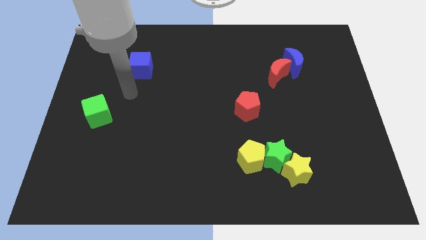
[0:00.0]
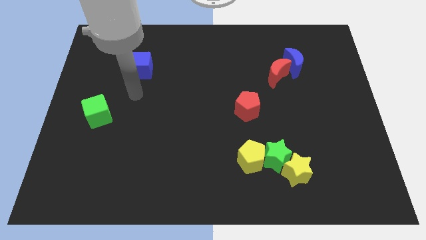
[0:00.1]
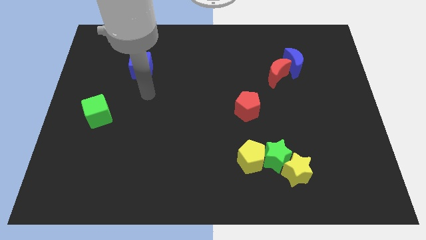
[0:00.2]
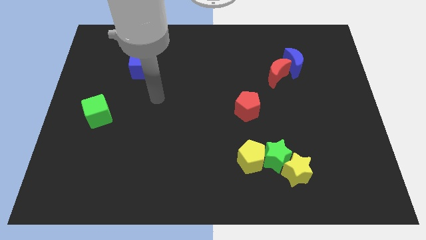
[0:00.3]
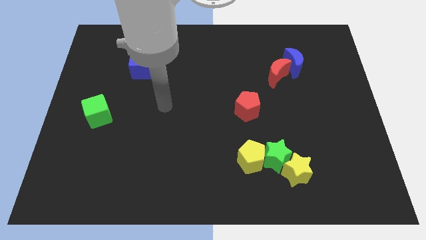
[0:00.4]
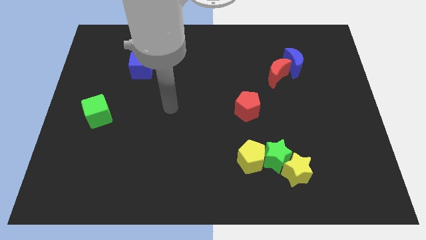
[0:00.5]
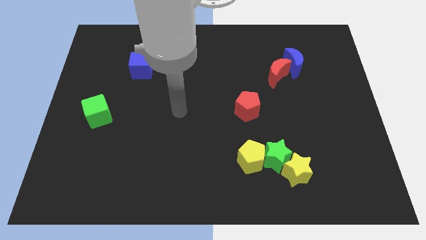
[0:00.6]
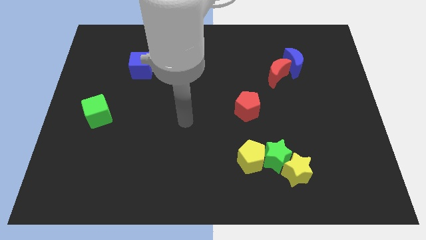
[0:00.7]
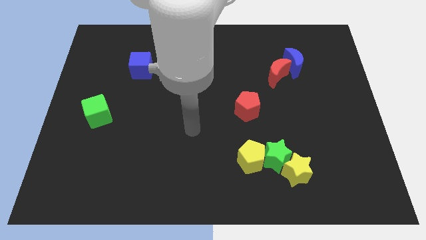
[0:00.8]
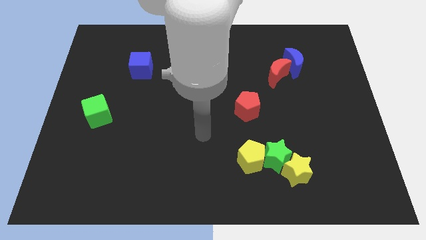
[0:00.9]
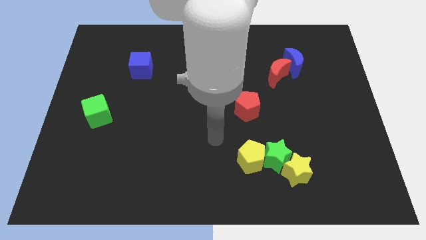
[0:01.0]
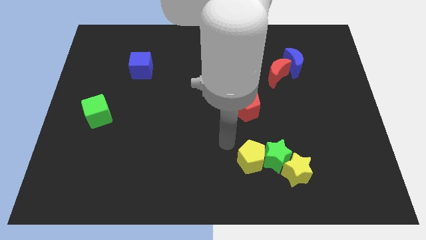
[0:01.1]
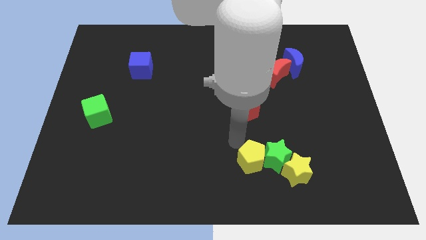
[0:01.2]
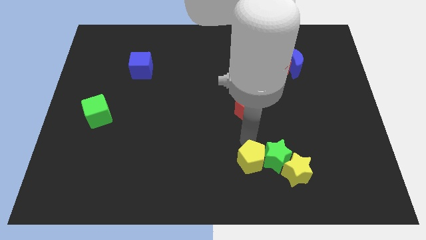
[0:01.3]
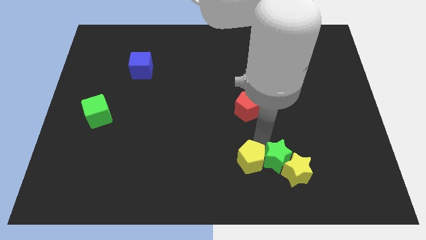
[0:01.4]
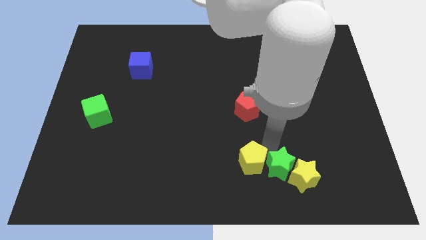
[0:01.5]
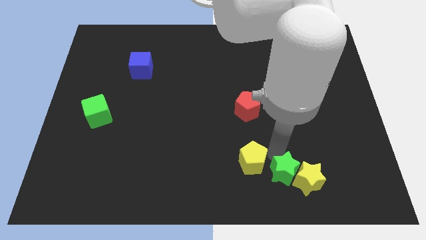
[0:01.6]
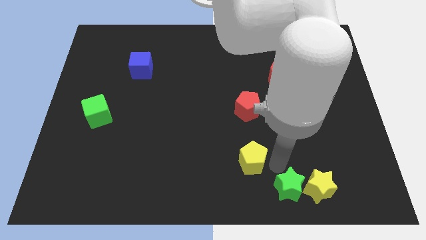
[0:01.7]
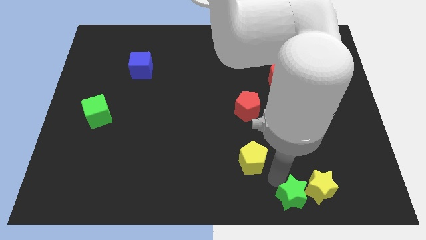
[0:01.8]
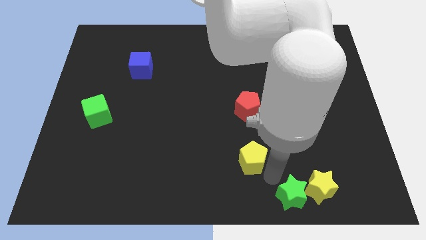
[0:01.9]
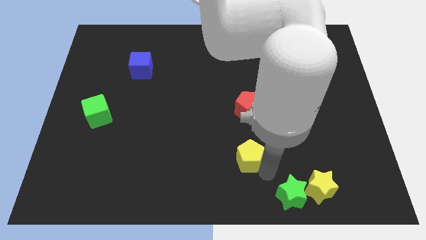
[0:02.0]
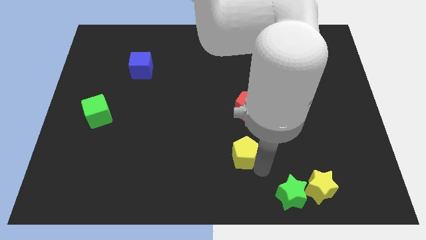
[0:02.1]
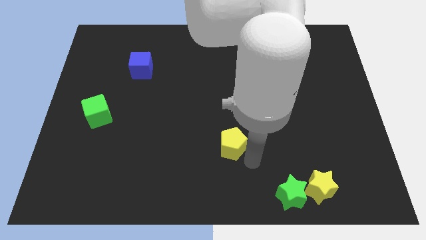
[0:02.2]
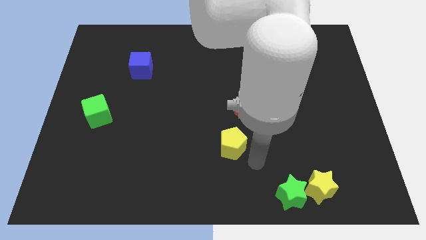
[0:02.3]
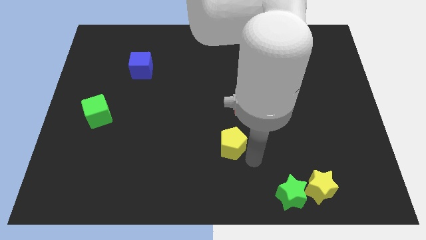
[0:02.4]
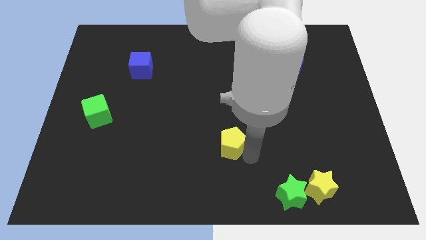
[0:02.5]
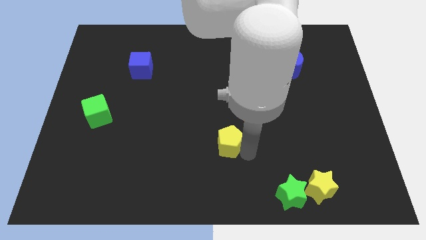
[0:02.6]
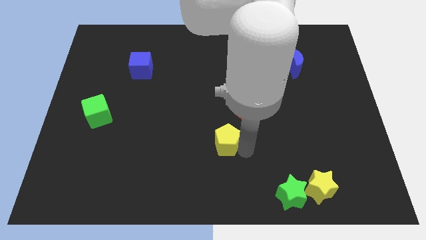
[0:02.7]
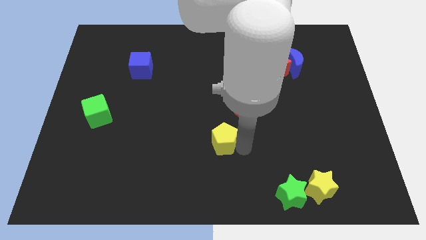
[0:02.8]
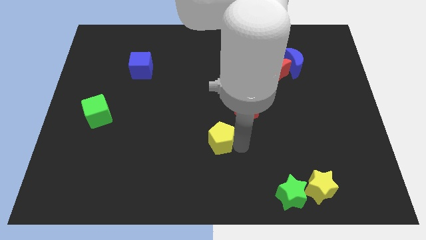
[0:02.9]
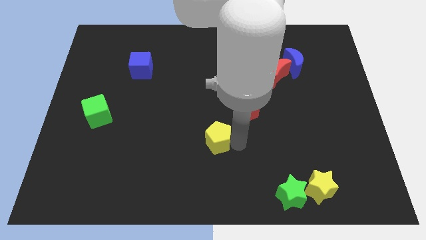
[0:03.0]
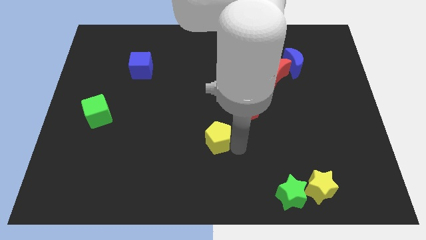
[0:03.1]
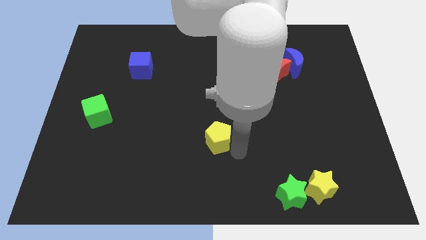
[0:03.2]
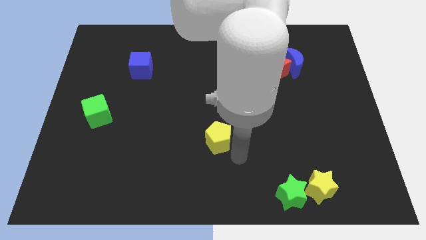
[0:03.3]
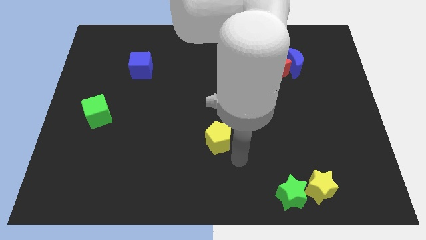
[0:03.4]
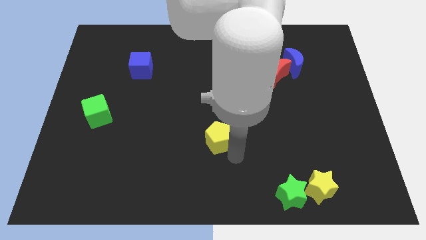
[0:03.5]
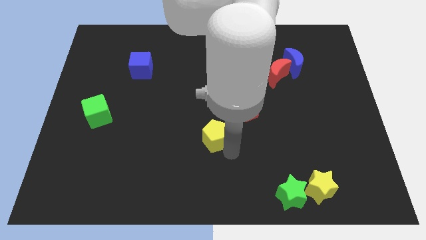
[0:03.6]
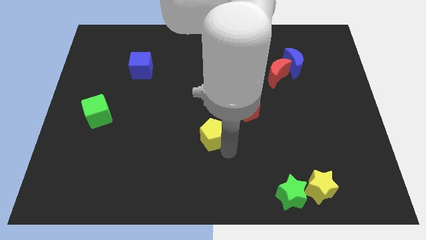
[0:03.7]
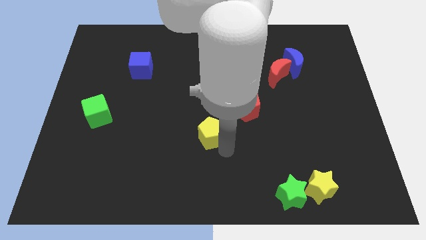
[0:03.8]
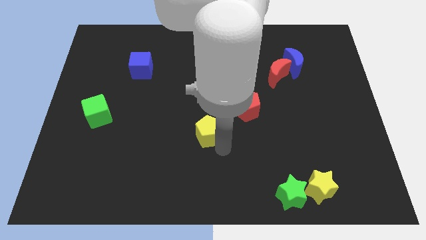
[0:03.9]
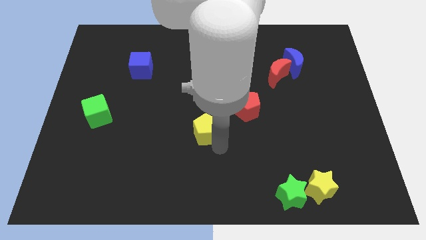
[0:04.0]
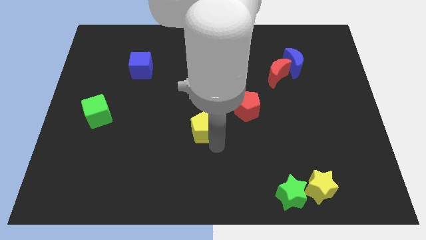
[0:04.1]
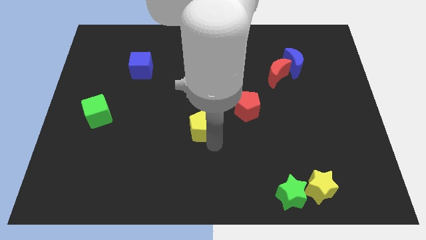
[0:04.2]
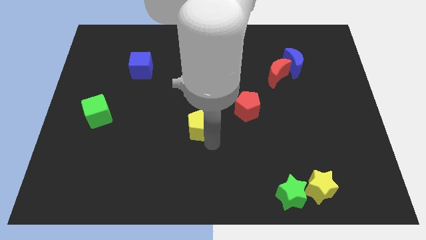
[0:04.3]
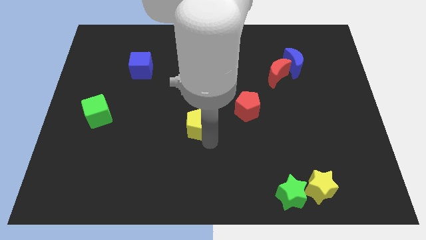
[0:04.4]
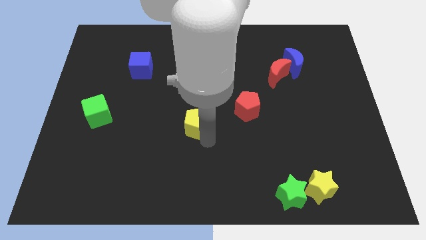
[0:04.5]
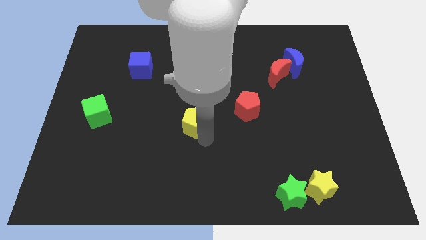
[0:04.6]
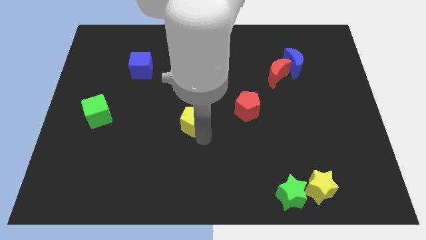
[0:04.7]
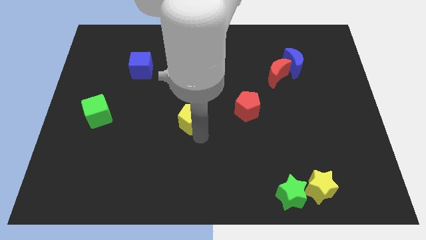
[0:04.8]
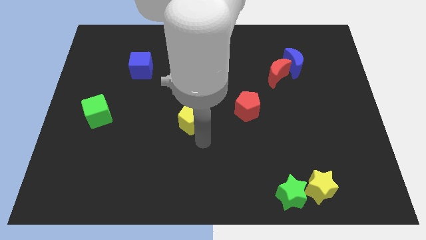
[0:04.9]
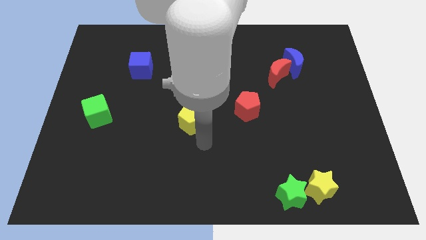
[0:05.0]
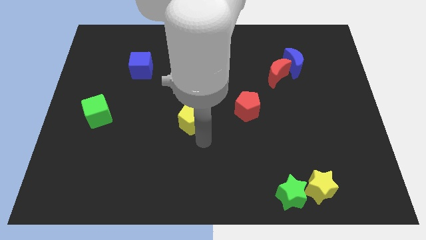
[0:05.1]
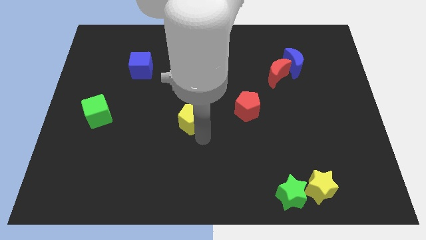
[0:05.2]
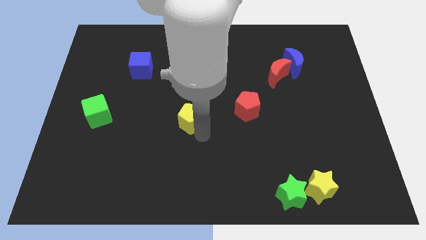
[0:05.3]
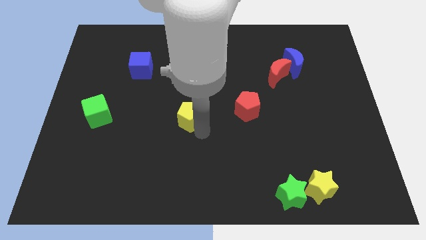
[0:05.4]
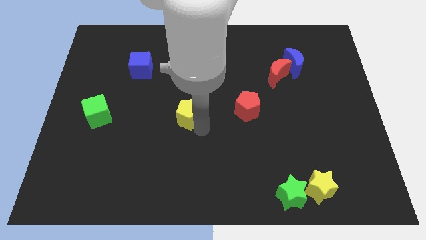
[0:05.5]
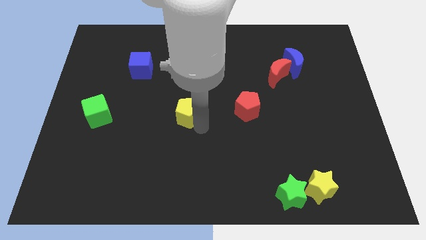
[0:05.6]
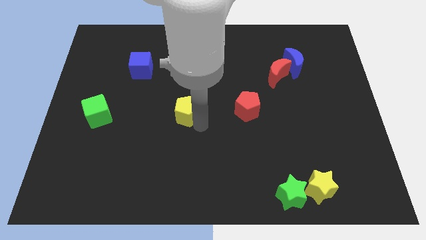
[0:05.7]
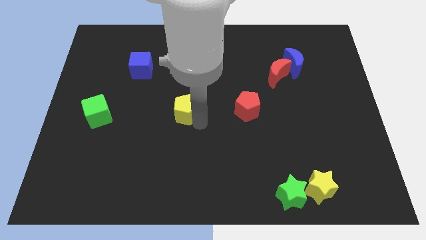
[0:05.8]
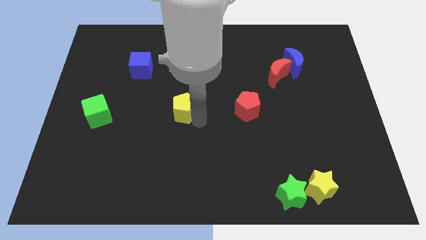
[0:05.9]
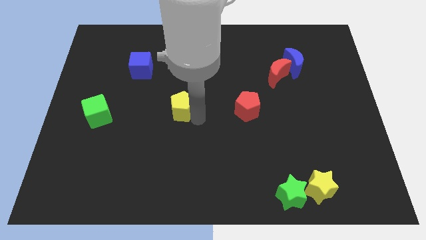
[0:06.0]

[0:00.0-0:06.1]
slide the yellow pentagon upwards and to the left diagonally

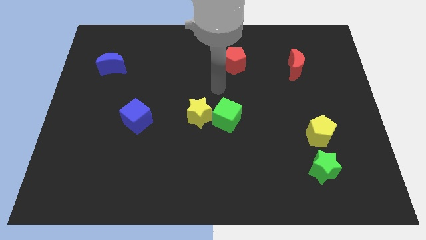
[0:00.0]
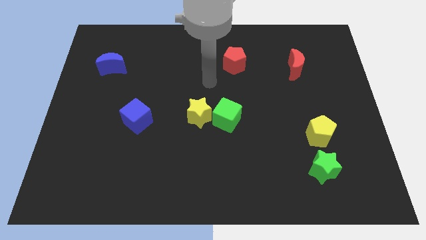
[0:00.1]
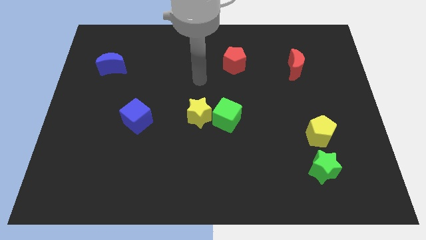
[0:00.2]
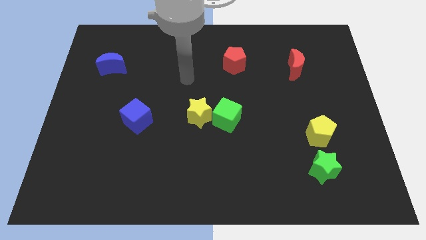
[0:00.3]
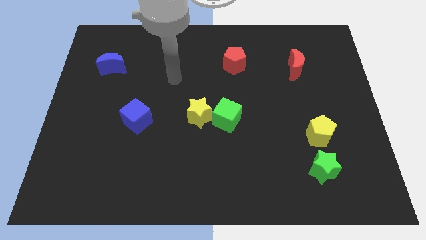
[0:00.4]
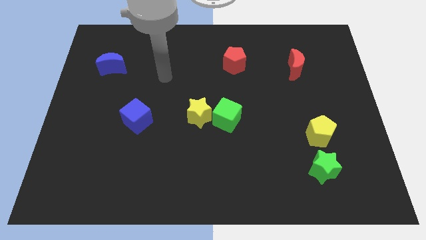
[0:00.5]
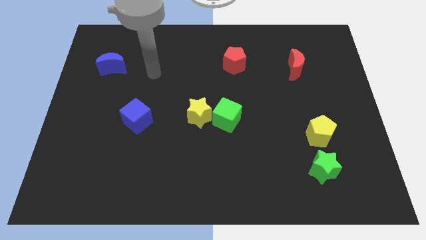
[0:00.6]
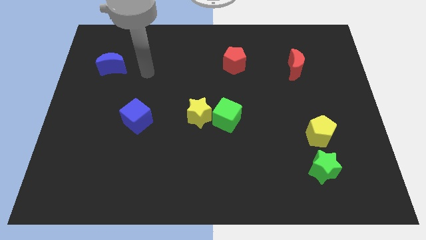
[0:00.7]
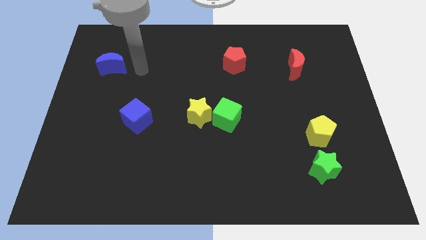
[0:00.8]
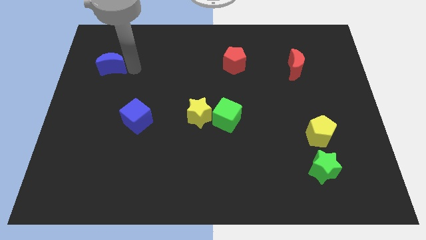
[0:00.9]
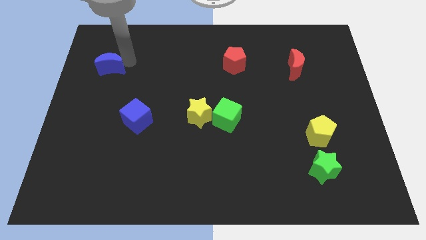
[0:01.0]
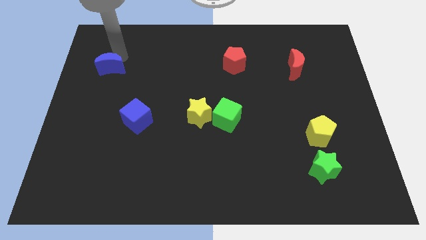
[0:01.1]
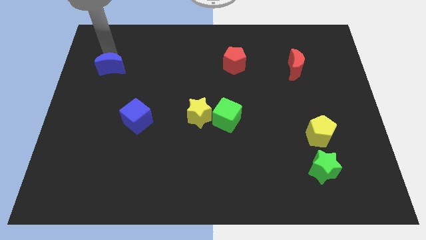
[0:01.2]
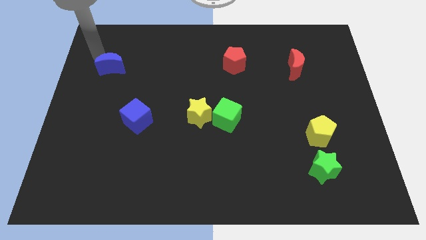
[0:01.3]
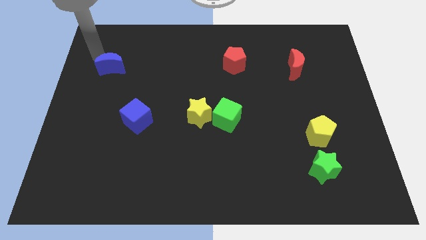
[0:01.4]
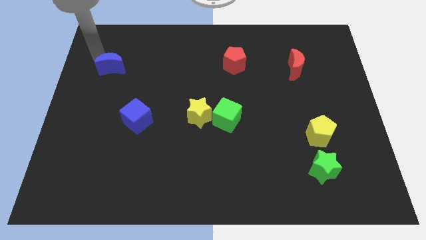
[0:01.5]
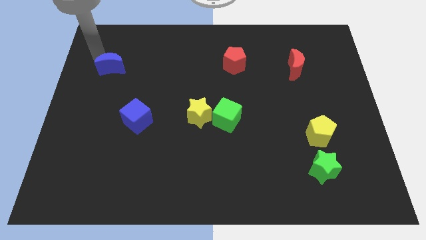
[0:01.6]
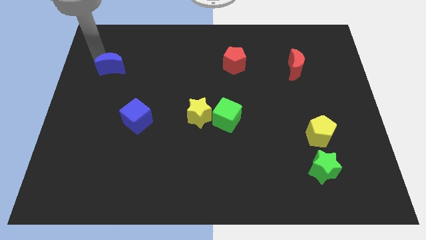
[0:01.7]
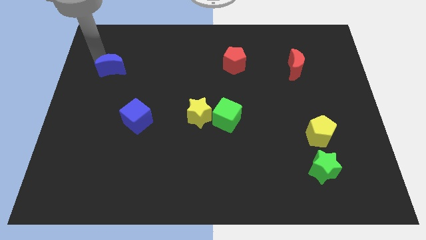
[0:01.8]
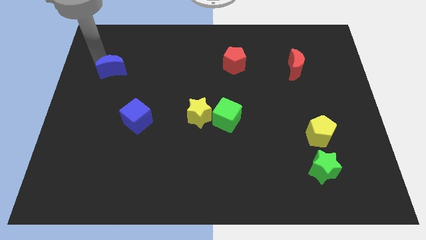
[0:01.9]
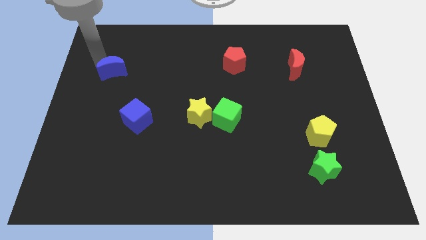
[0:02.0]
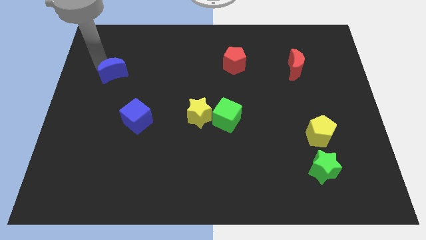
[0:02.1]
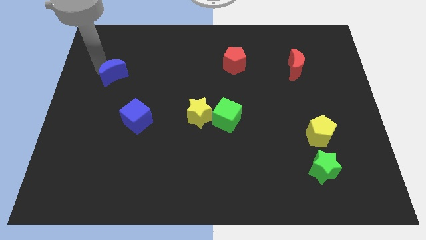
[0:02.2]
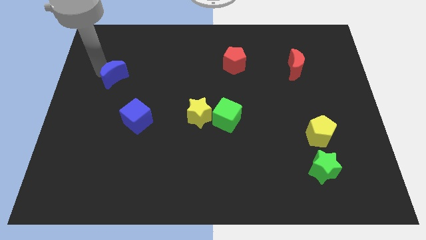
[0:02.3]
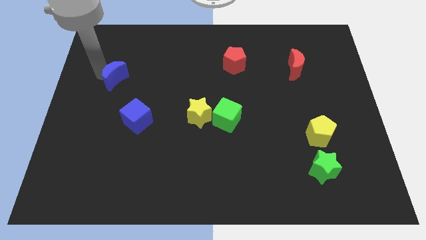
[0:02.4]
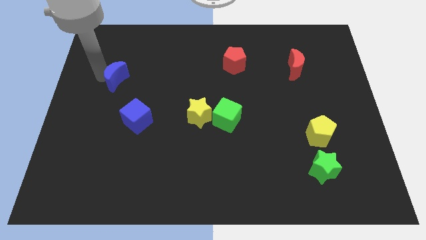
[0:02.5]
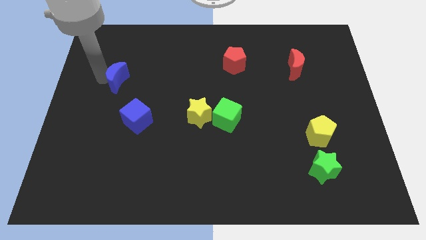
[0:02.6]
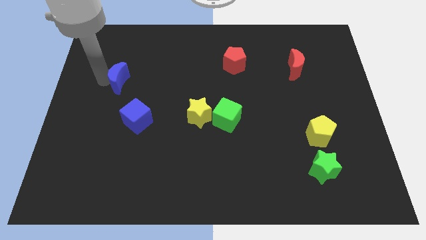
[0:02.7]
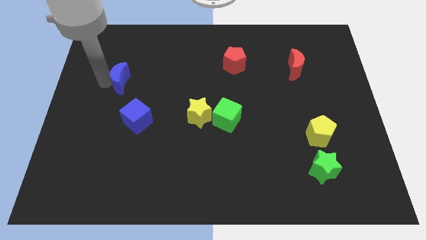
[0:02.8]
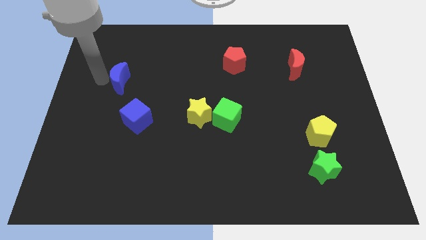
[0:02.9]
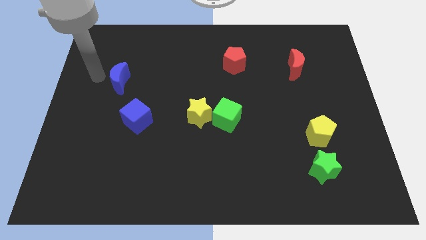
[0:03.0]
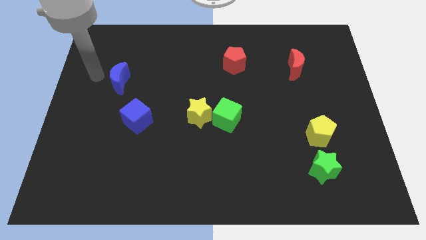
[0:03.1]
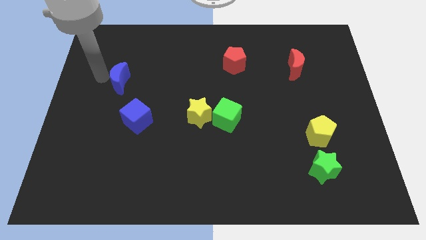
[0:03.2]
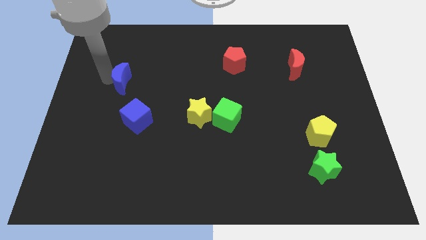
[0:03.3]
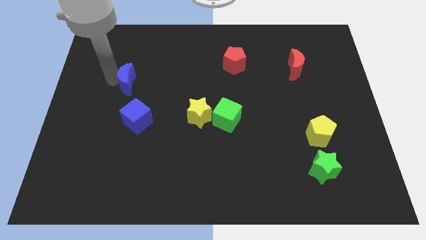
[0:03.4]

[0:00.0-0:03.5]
slide the blue moon a little downwards and right
